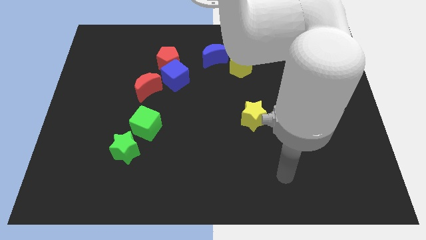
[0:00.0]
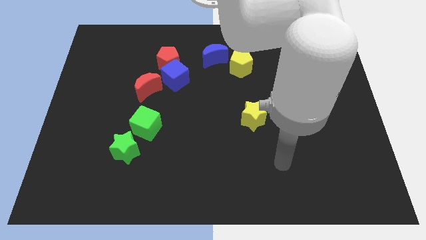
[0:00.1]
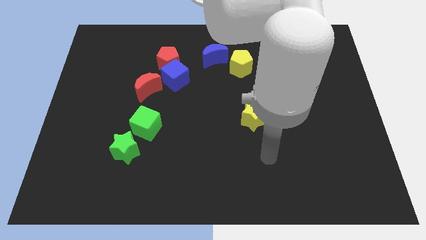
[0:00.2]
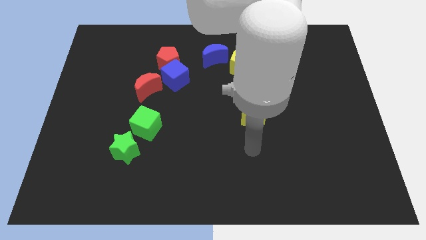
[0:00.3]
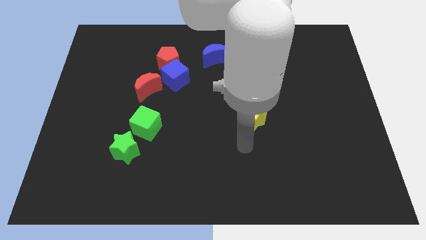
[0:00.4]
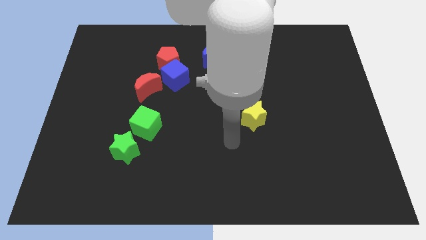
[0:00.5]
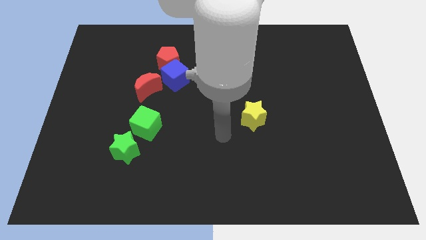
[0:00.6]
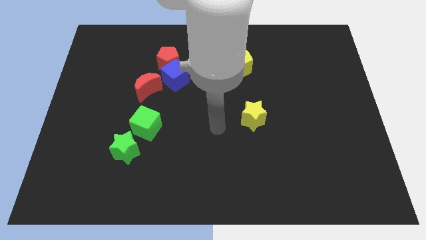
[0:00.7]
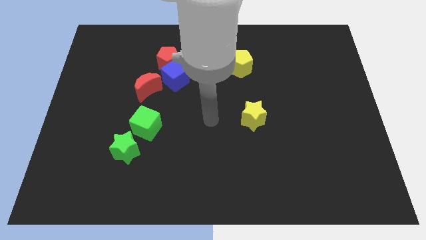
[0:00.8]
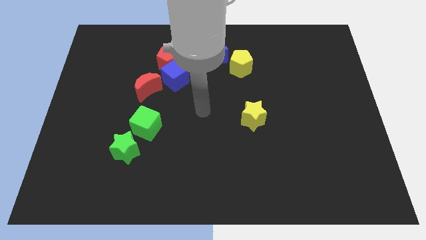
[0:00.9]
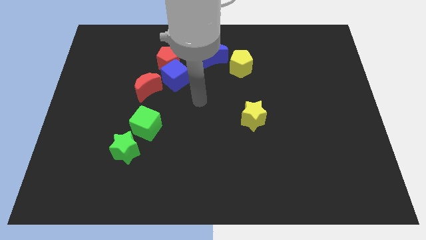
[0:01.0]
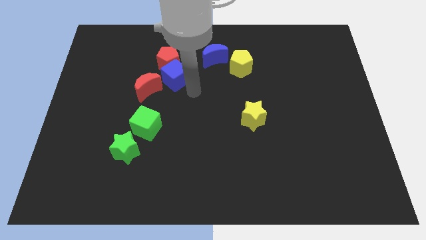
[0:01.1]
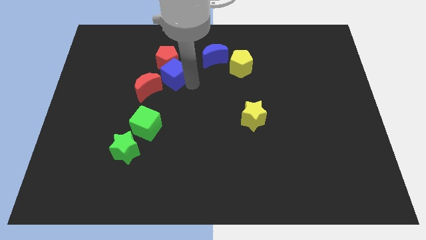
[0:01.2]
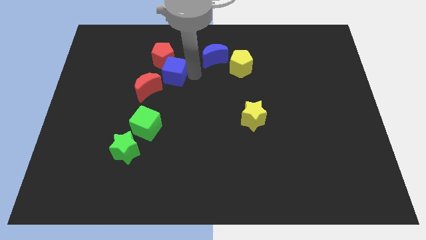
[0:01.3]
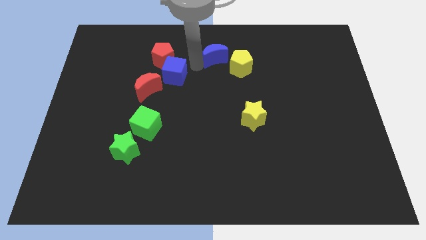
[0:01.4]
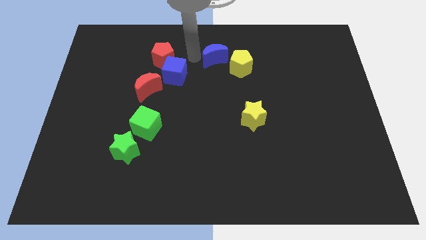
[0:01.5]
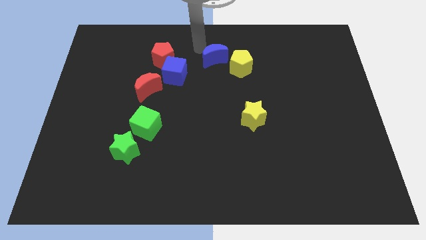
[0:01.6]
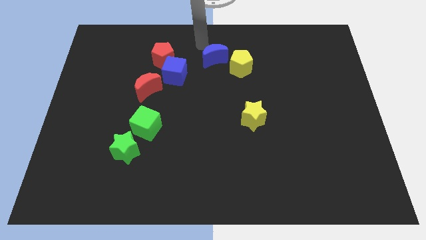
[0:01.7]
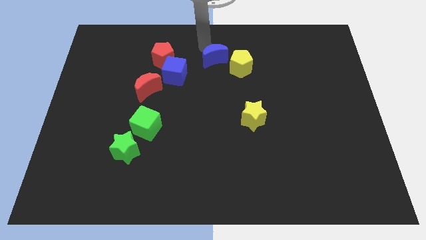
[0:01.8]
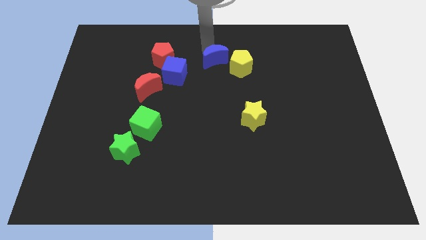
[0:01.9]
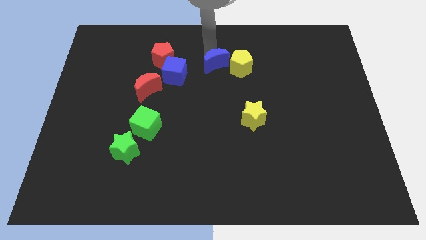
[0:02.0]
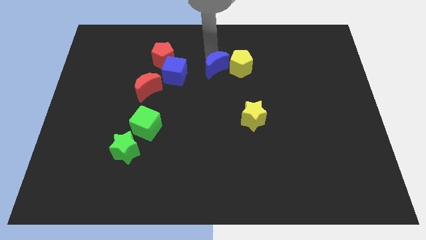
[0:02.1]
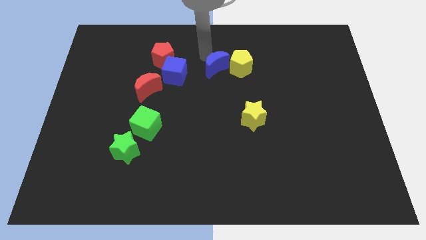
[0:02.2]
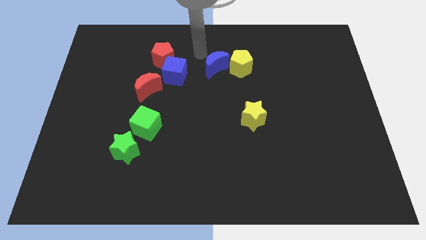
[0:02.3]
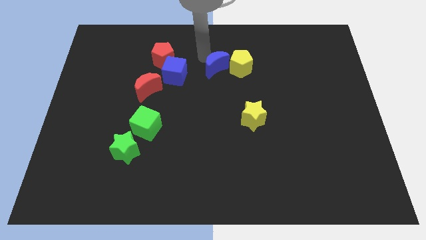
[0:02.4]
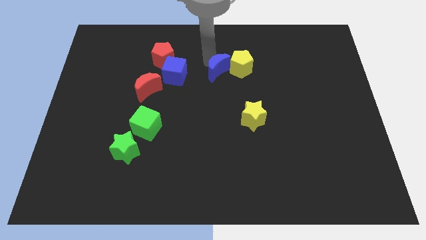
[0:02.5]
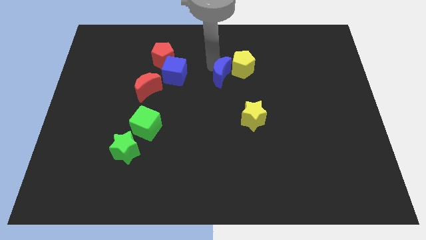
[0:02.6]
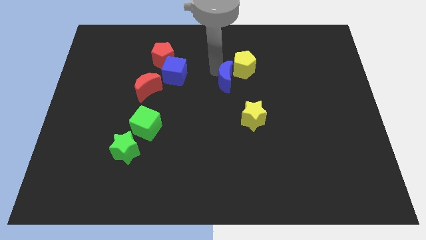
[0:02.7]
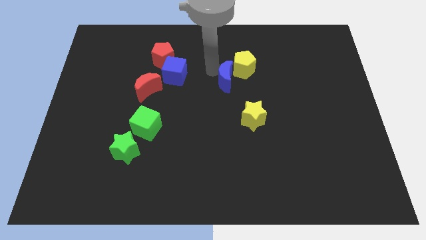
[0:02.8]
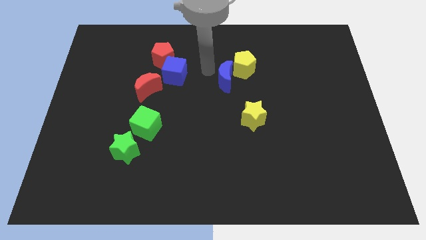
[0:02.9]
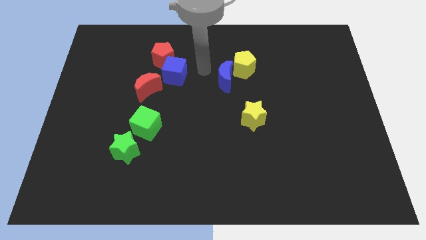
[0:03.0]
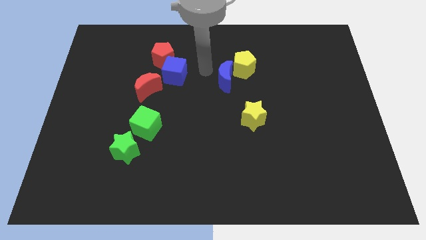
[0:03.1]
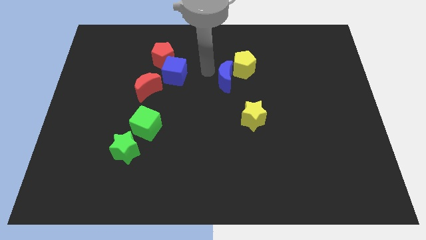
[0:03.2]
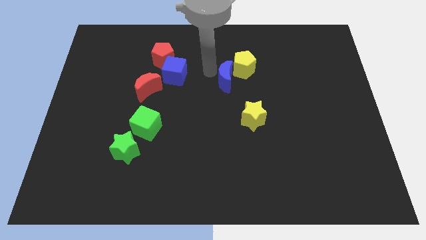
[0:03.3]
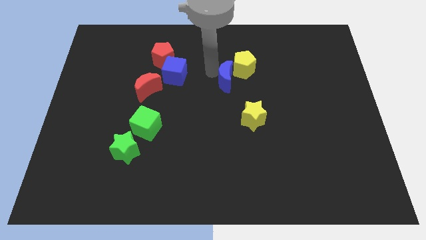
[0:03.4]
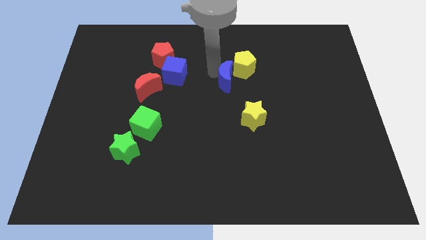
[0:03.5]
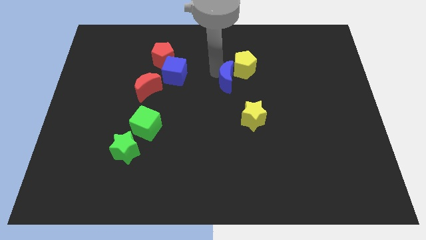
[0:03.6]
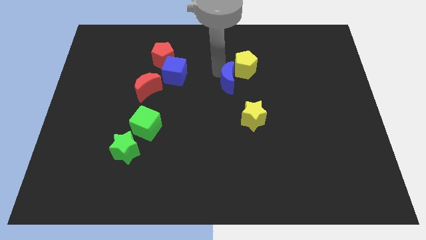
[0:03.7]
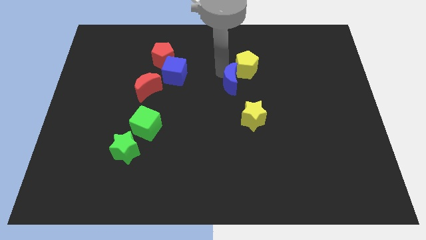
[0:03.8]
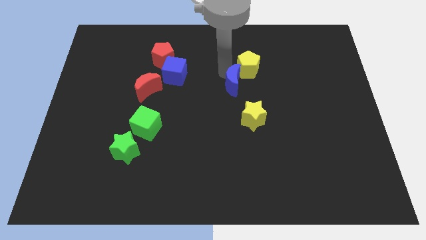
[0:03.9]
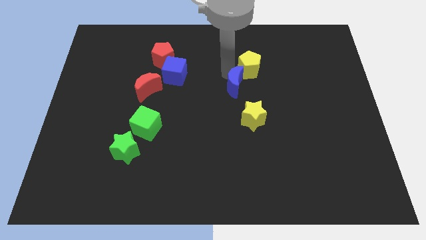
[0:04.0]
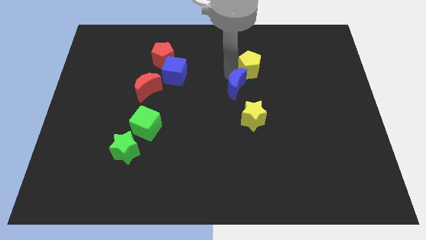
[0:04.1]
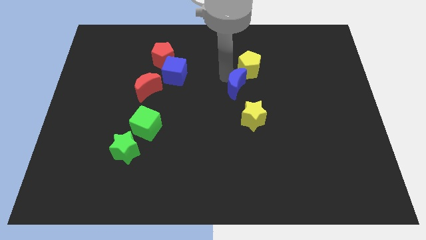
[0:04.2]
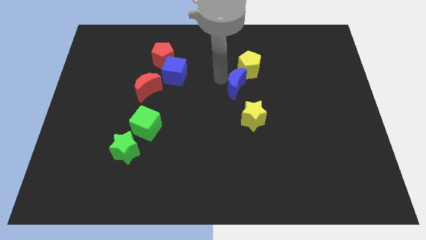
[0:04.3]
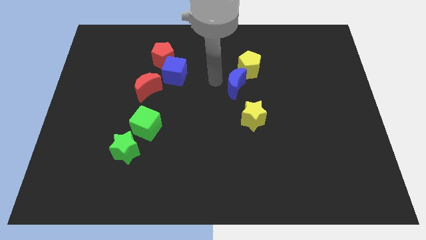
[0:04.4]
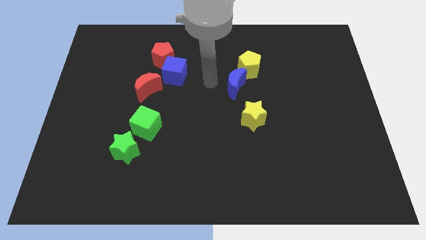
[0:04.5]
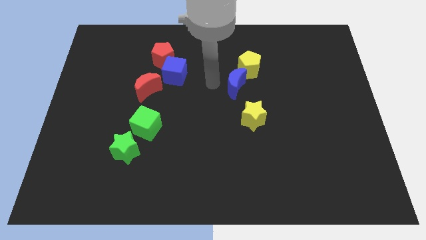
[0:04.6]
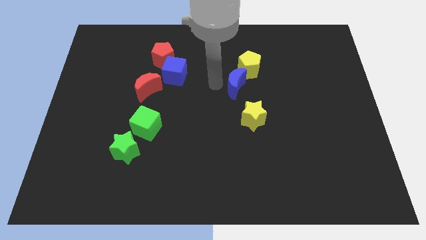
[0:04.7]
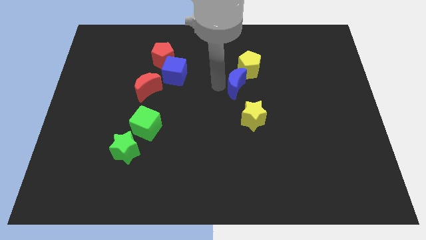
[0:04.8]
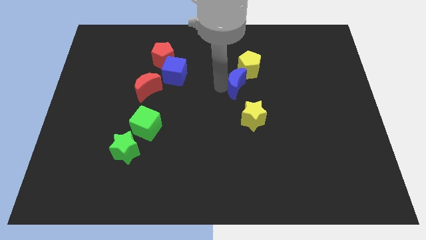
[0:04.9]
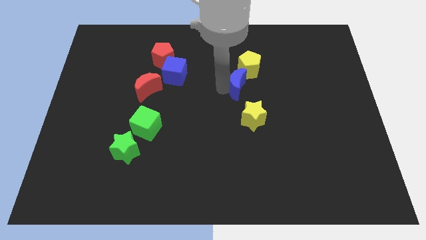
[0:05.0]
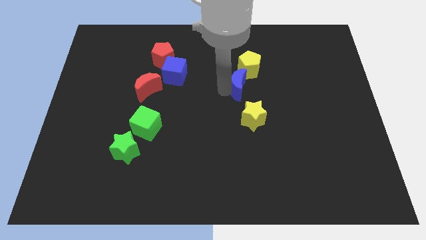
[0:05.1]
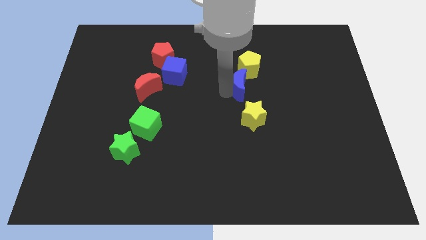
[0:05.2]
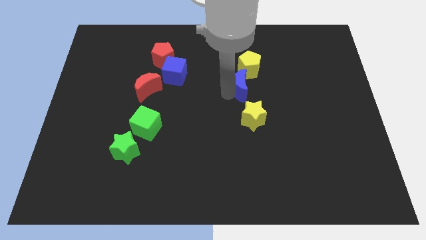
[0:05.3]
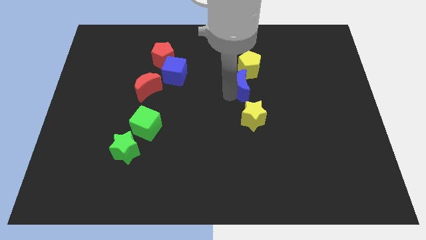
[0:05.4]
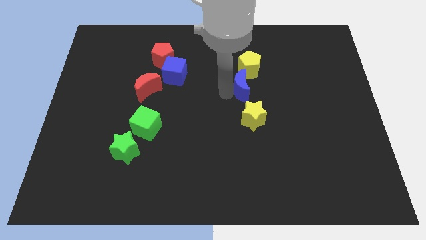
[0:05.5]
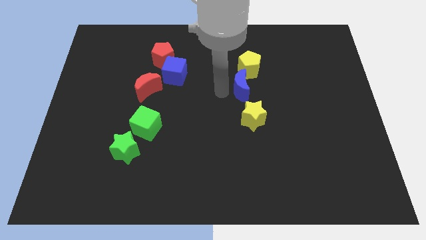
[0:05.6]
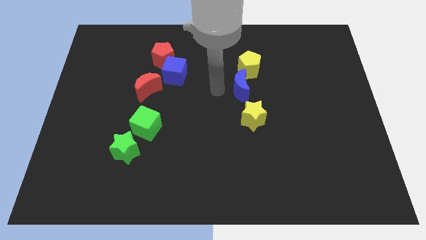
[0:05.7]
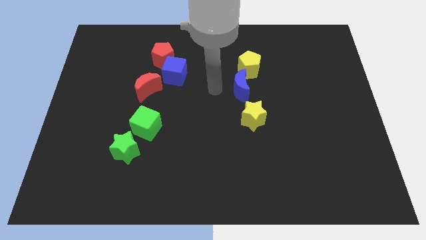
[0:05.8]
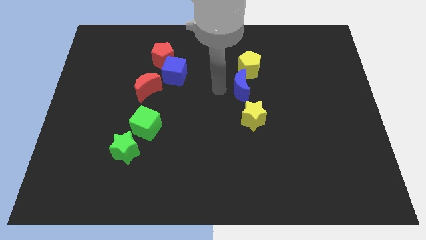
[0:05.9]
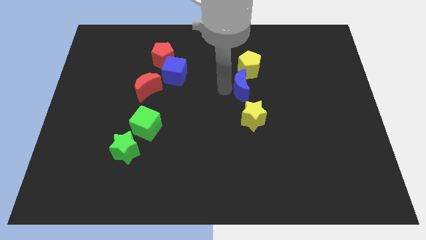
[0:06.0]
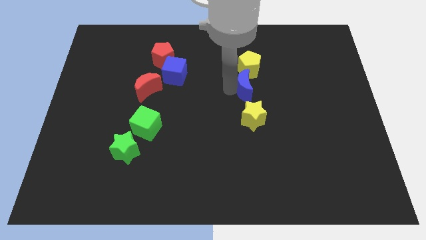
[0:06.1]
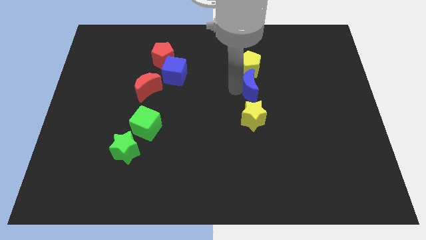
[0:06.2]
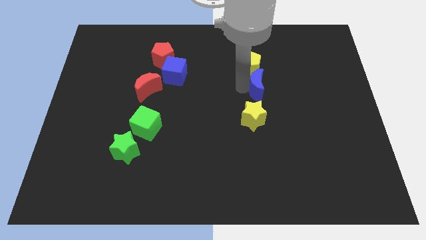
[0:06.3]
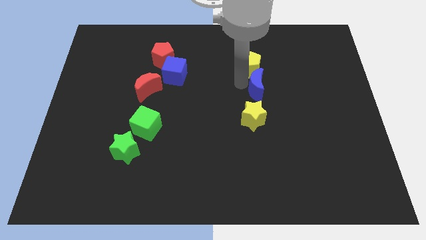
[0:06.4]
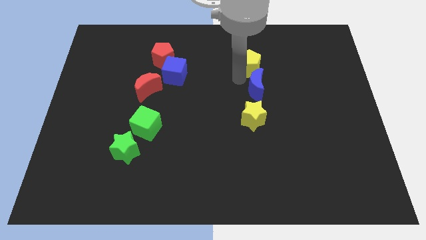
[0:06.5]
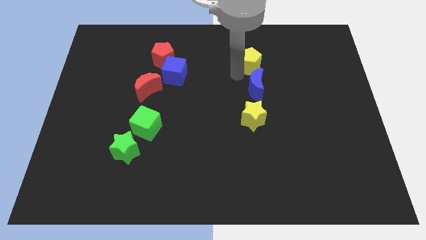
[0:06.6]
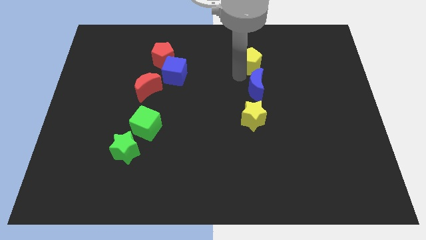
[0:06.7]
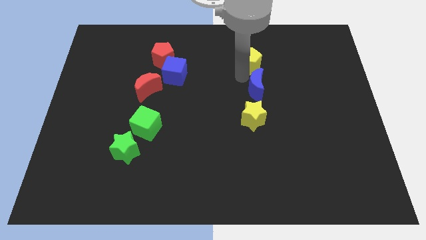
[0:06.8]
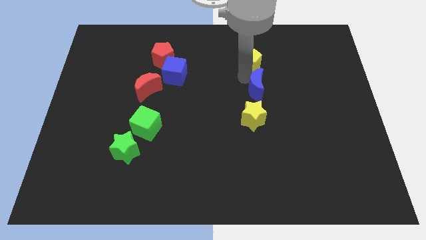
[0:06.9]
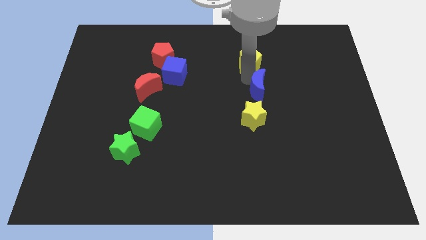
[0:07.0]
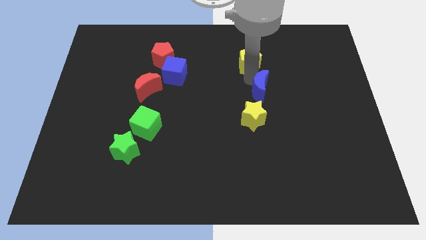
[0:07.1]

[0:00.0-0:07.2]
slide the blue moon to the top right side of the yellow star

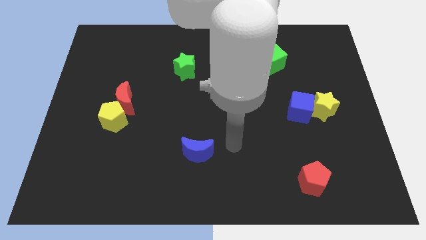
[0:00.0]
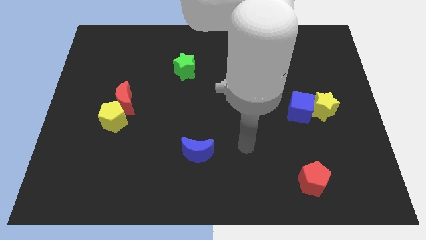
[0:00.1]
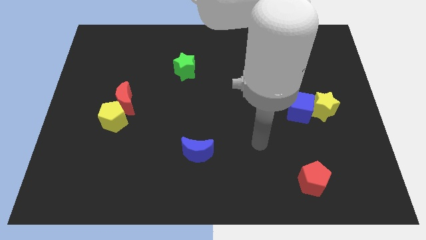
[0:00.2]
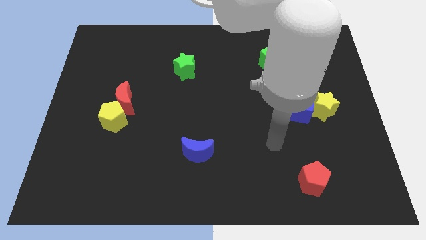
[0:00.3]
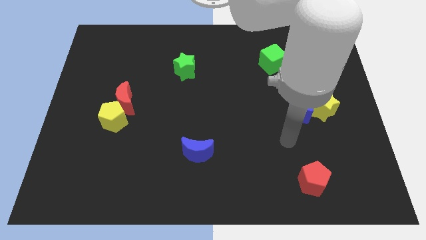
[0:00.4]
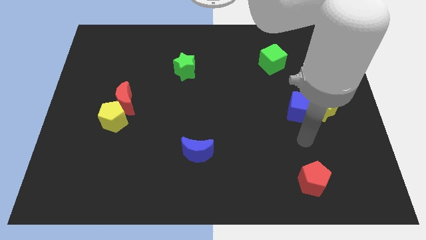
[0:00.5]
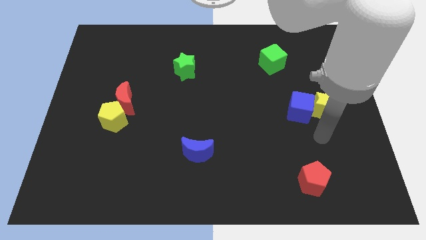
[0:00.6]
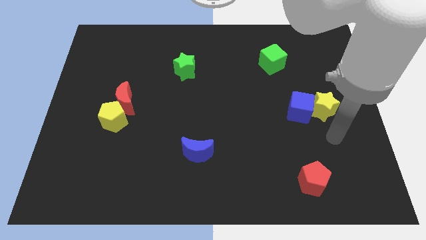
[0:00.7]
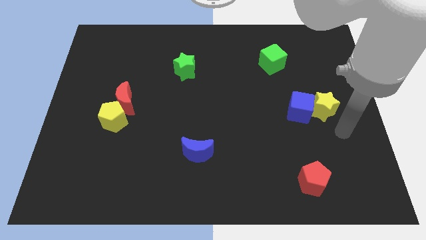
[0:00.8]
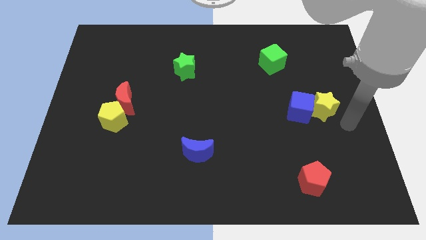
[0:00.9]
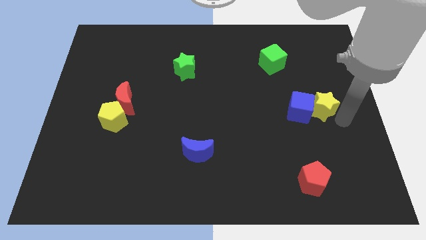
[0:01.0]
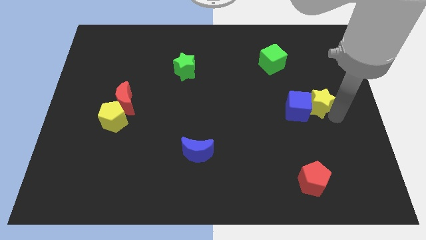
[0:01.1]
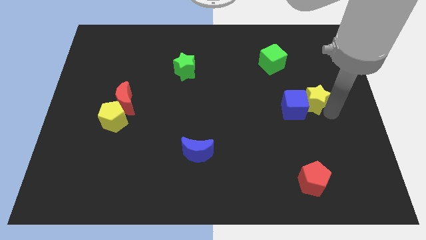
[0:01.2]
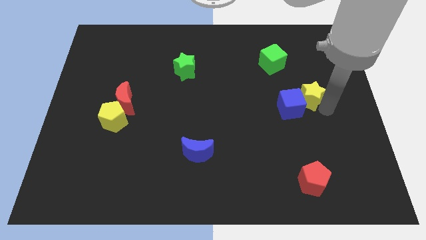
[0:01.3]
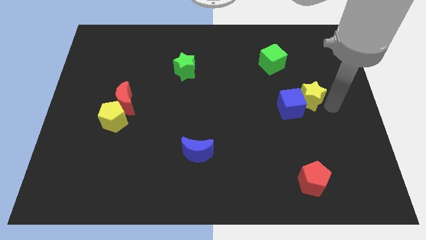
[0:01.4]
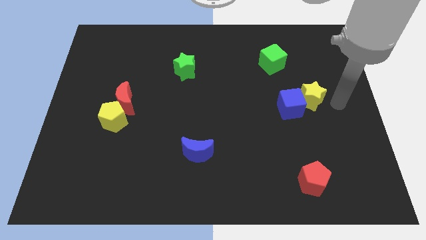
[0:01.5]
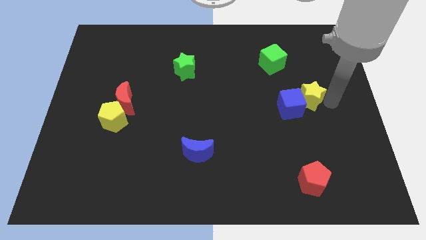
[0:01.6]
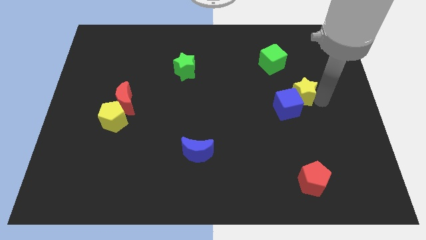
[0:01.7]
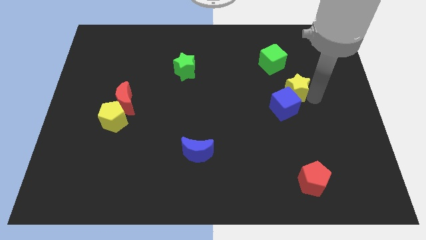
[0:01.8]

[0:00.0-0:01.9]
put the yellow star to the bottom side of the green cube
